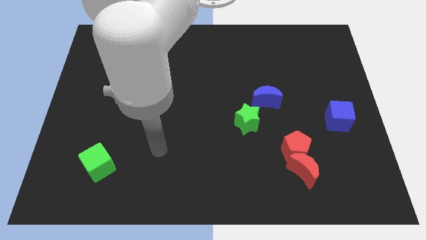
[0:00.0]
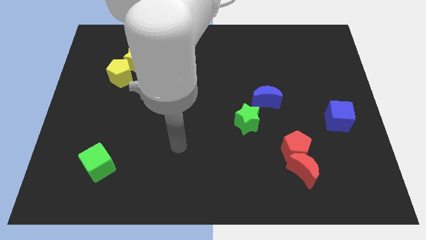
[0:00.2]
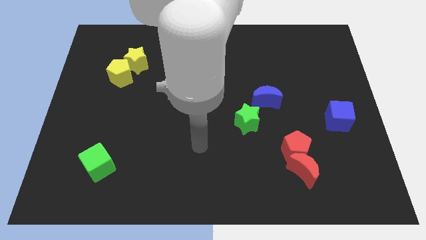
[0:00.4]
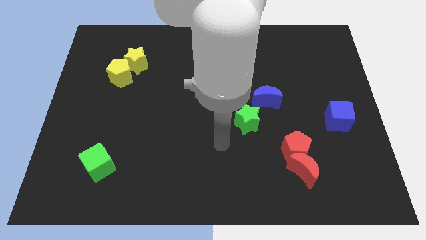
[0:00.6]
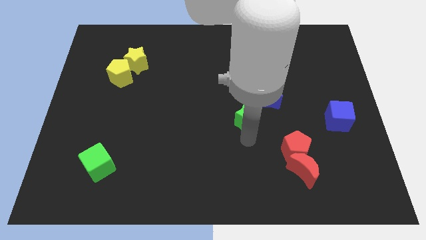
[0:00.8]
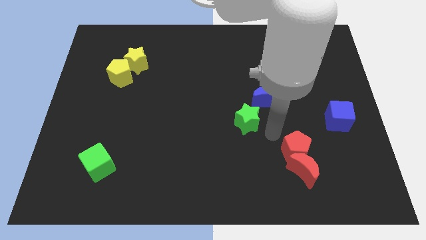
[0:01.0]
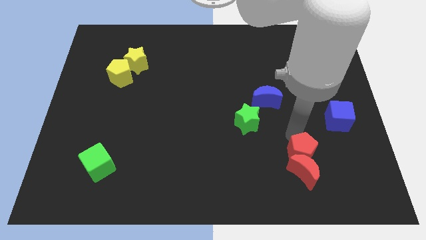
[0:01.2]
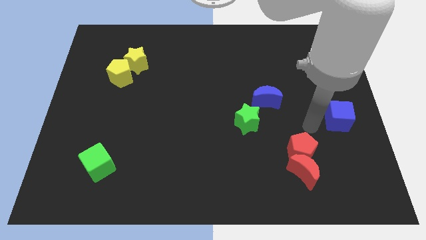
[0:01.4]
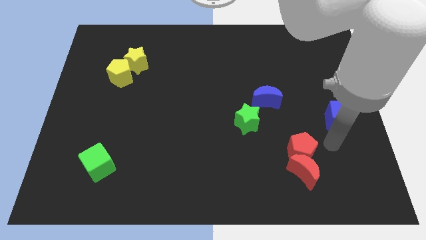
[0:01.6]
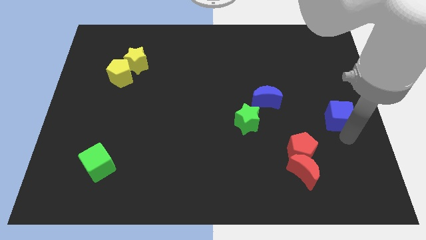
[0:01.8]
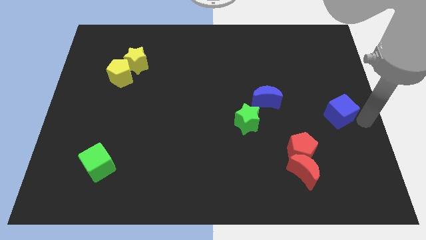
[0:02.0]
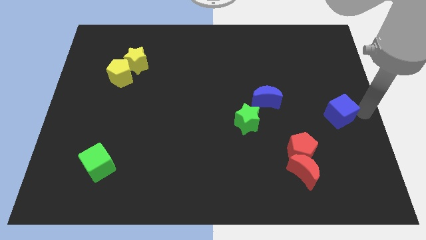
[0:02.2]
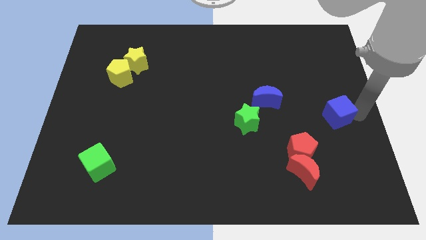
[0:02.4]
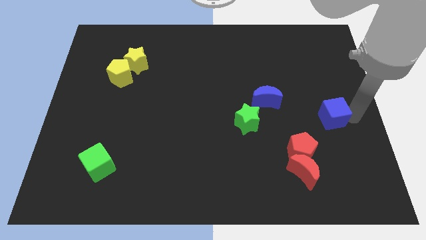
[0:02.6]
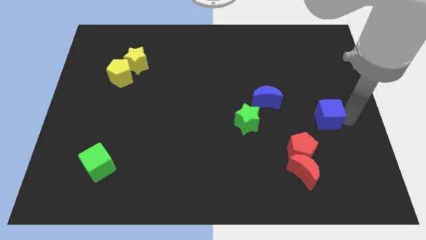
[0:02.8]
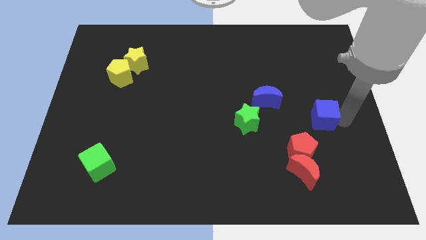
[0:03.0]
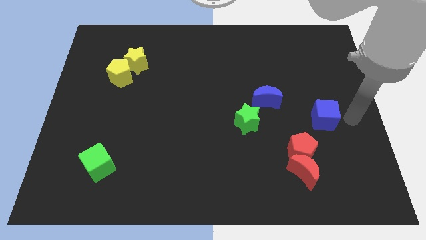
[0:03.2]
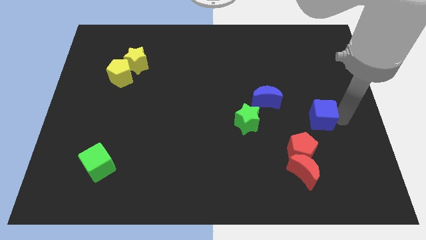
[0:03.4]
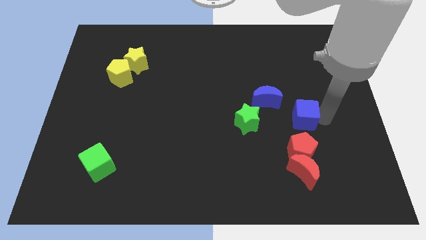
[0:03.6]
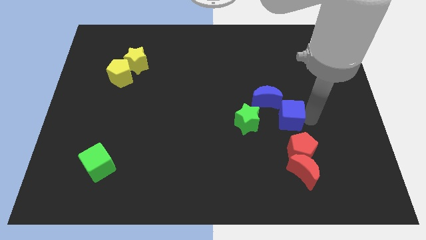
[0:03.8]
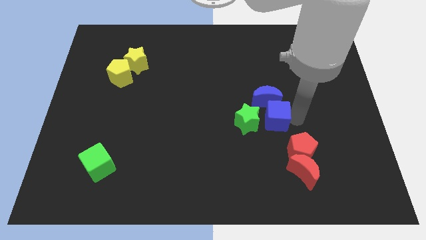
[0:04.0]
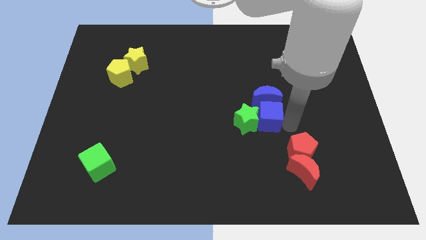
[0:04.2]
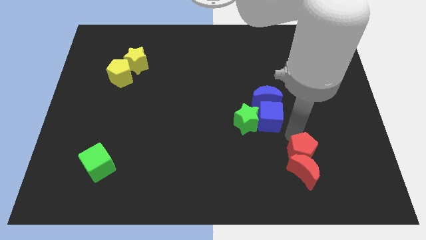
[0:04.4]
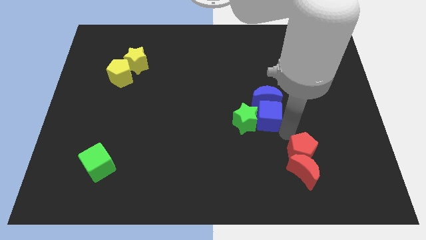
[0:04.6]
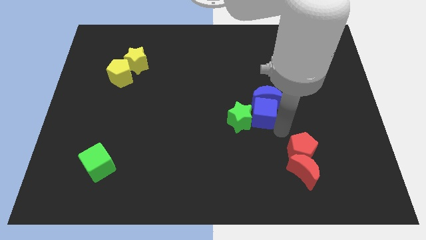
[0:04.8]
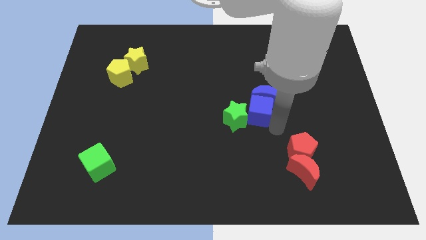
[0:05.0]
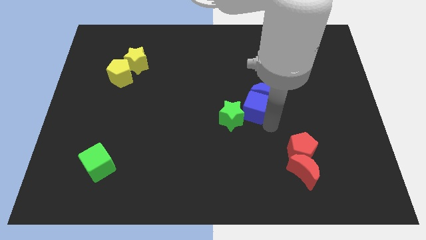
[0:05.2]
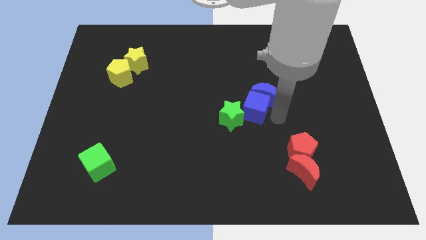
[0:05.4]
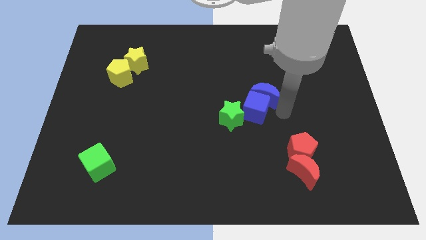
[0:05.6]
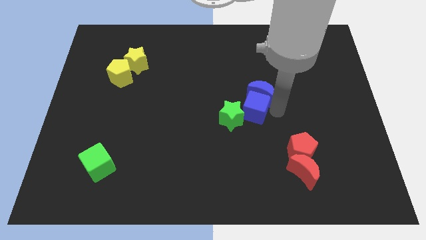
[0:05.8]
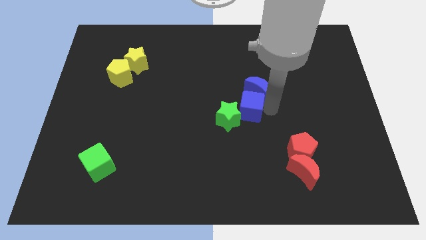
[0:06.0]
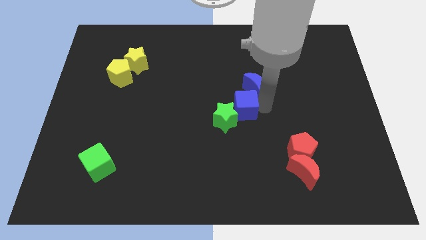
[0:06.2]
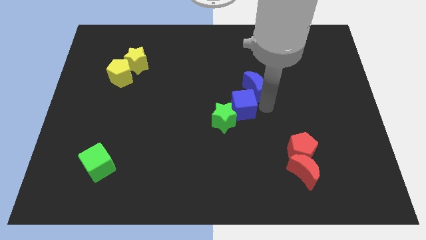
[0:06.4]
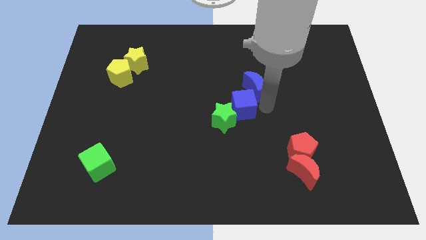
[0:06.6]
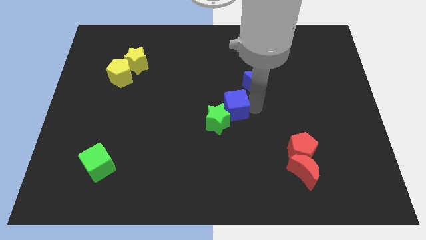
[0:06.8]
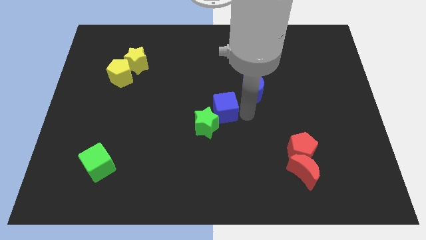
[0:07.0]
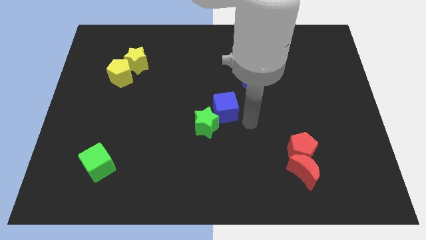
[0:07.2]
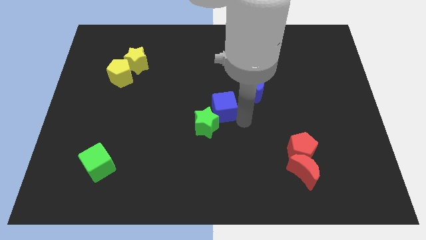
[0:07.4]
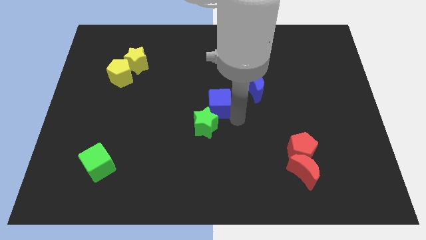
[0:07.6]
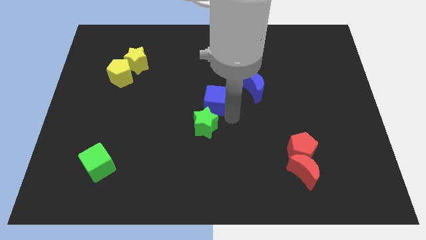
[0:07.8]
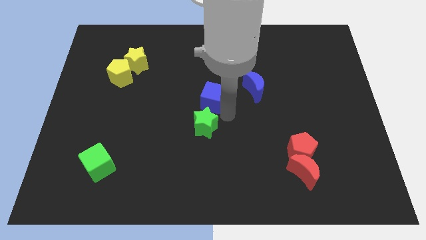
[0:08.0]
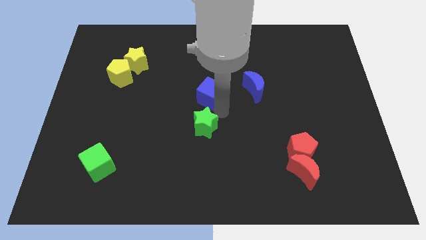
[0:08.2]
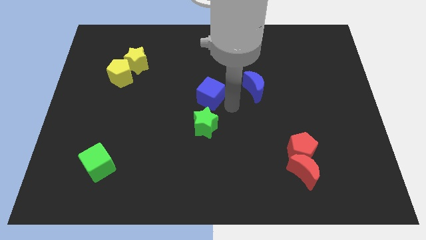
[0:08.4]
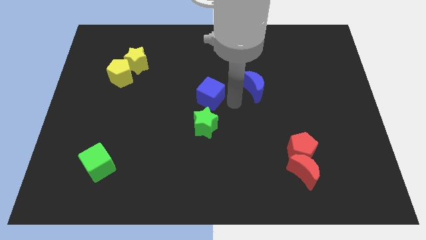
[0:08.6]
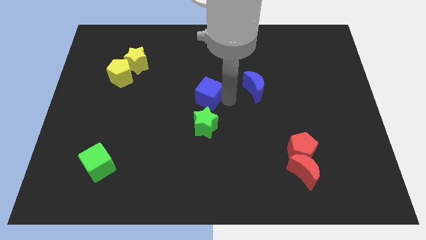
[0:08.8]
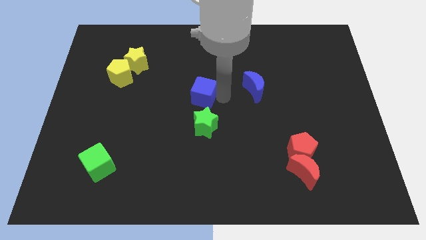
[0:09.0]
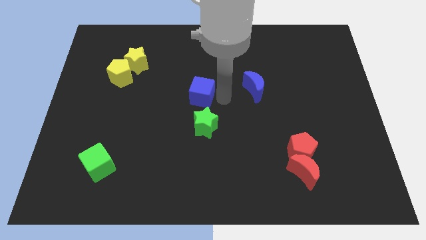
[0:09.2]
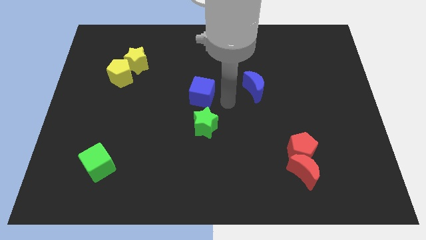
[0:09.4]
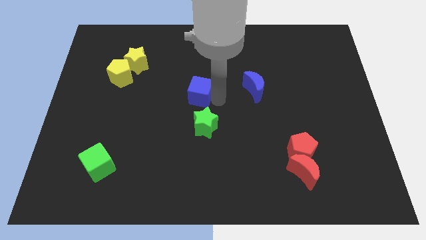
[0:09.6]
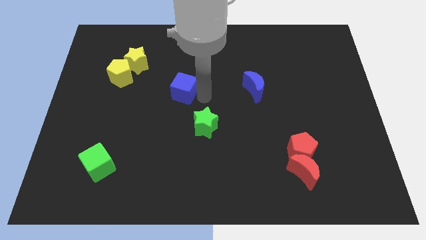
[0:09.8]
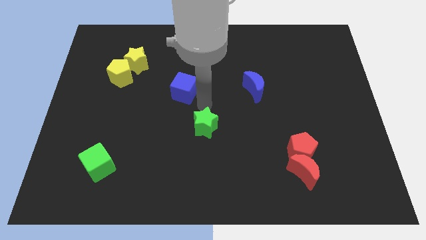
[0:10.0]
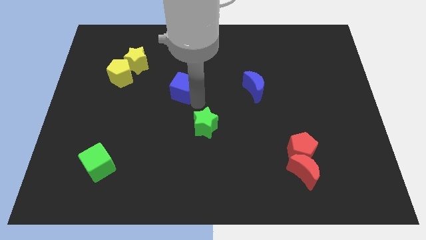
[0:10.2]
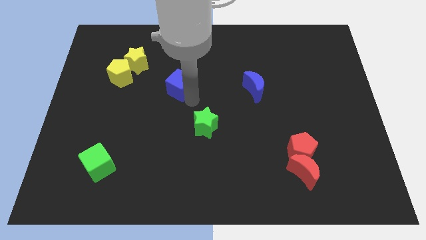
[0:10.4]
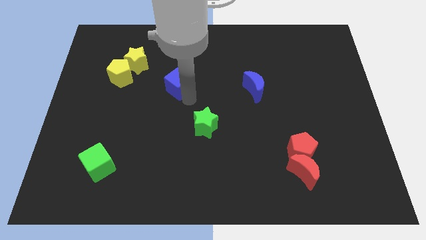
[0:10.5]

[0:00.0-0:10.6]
push the blue cube just right of the yellow pentagon

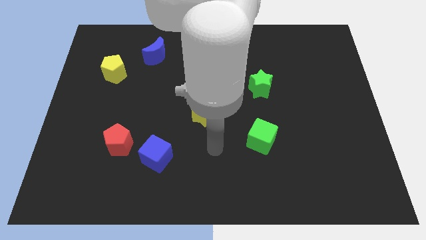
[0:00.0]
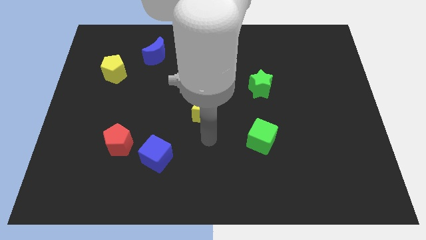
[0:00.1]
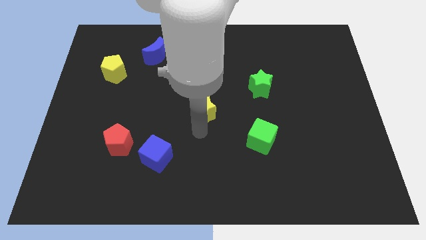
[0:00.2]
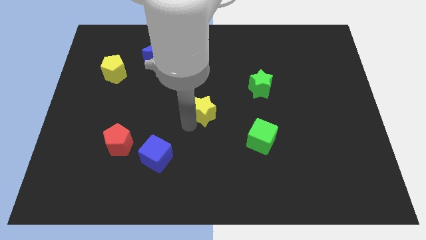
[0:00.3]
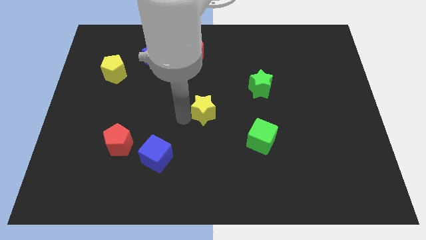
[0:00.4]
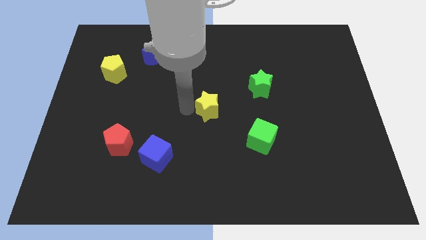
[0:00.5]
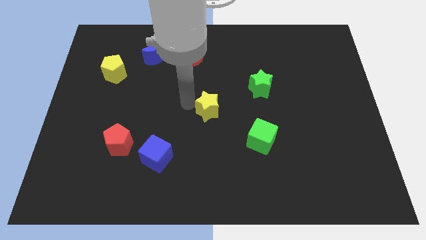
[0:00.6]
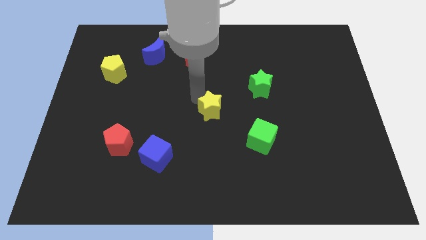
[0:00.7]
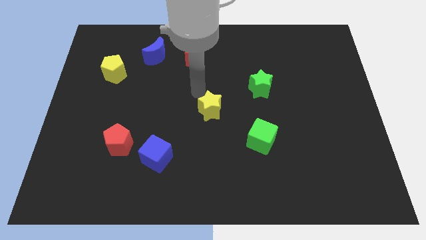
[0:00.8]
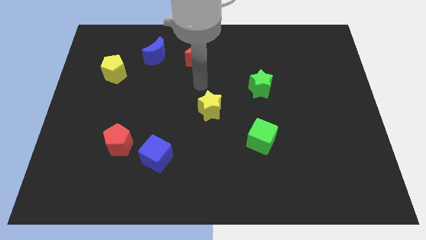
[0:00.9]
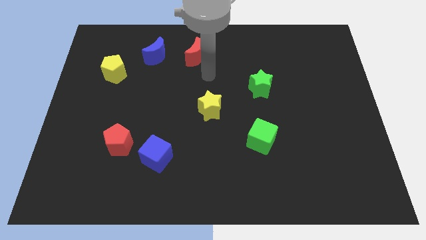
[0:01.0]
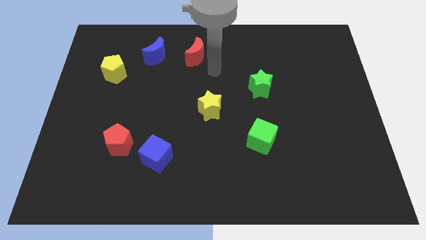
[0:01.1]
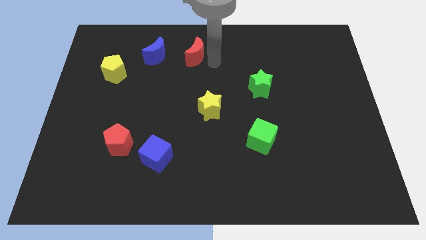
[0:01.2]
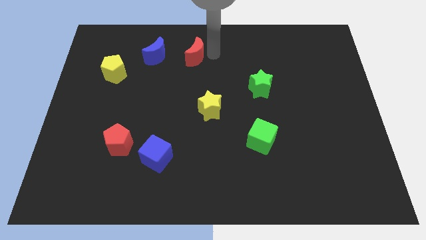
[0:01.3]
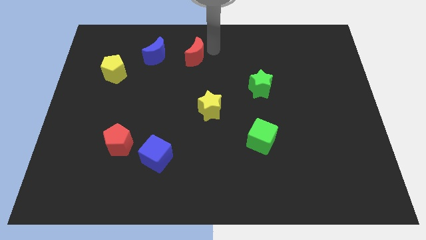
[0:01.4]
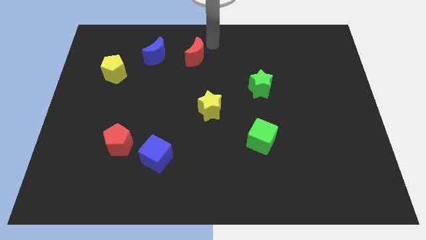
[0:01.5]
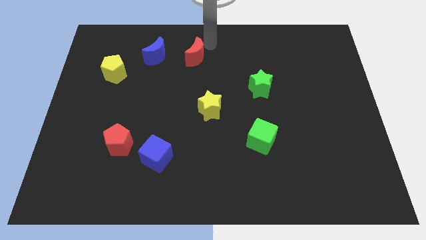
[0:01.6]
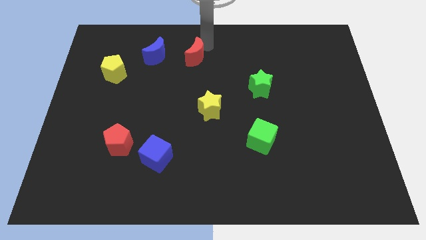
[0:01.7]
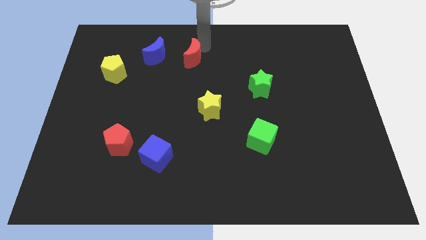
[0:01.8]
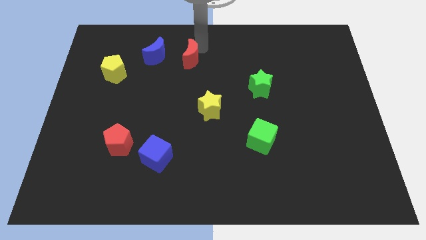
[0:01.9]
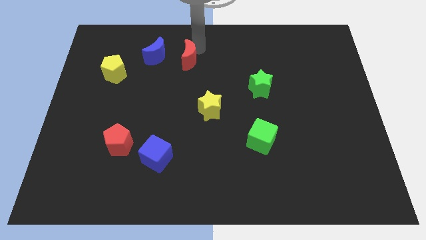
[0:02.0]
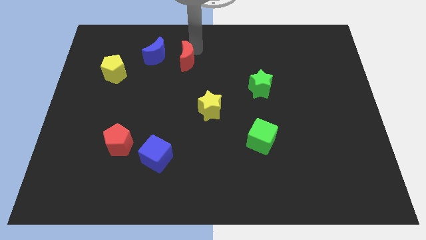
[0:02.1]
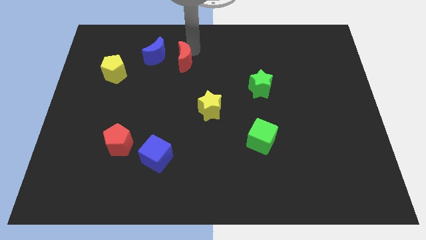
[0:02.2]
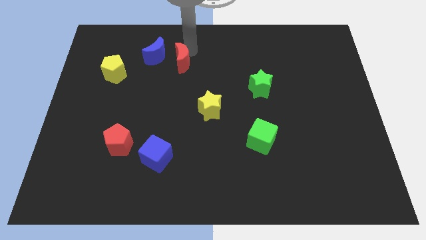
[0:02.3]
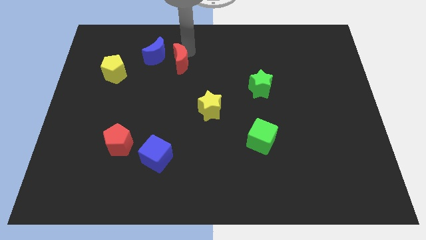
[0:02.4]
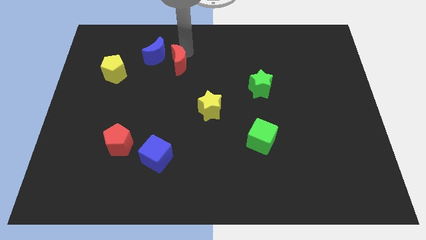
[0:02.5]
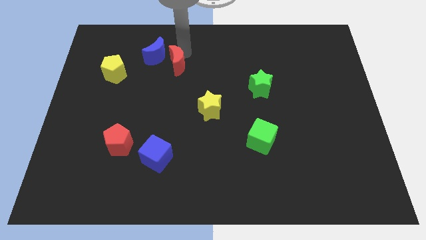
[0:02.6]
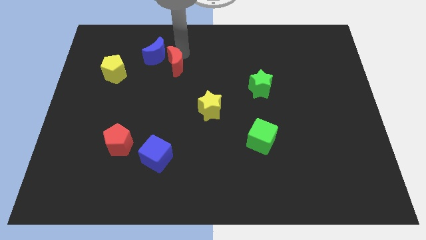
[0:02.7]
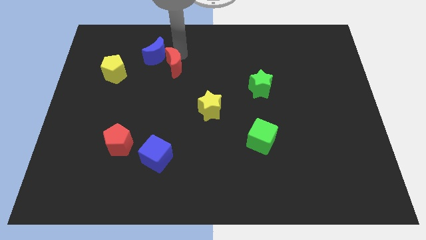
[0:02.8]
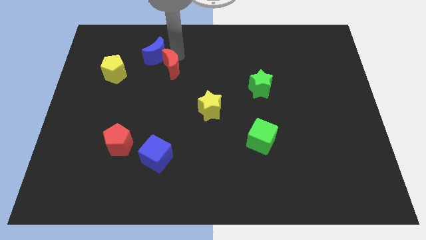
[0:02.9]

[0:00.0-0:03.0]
slide the red moon to the bottom of the blue moon
